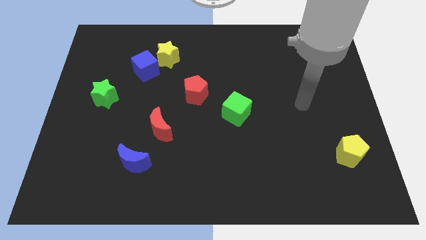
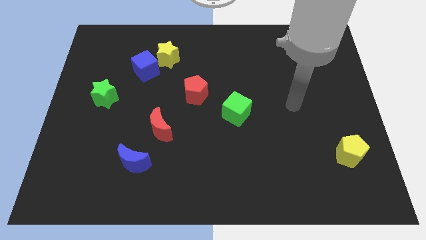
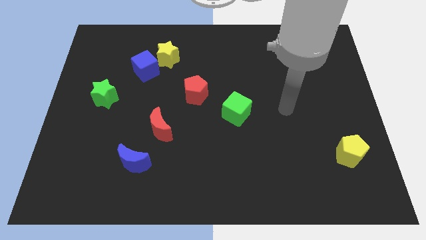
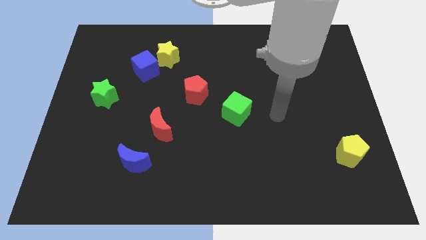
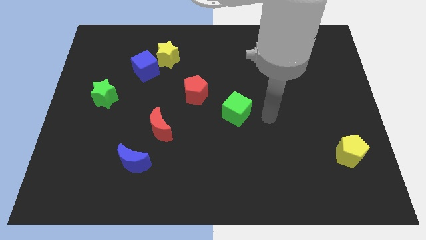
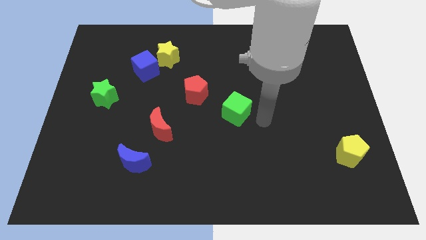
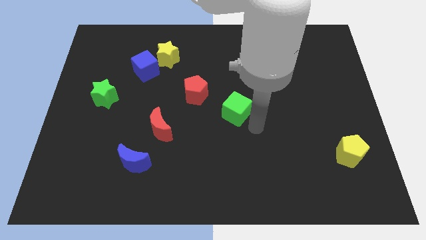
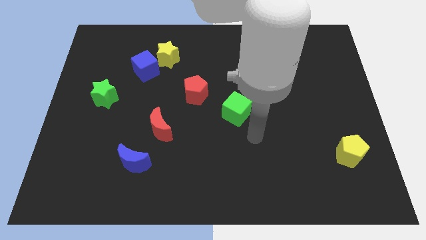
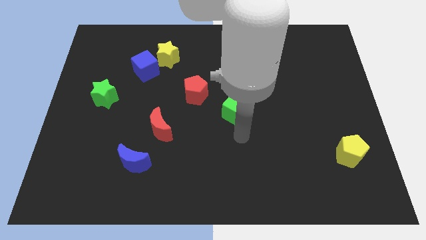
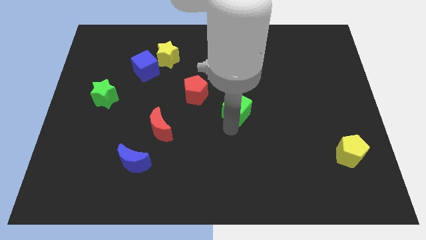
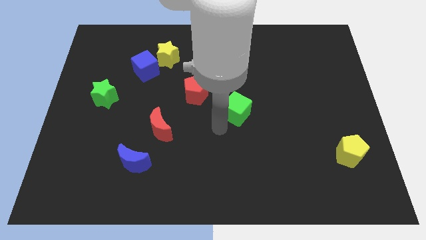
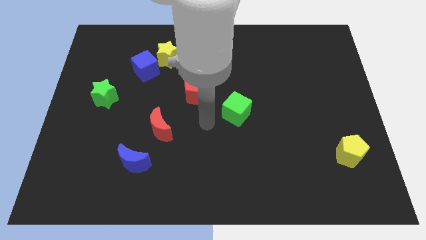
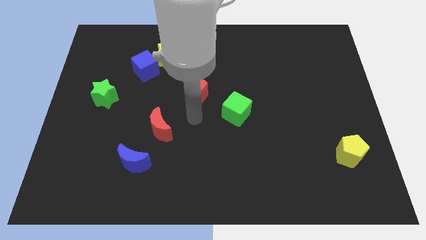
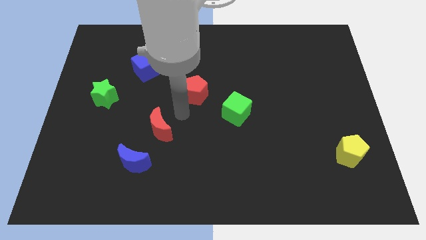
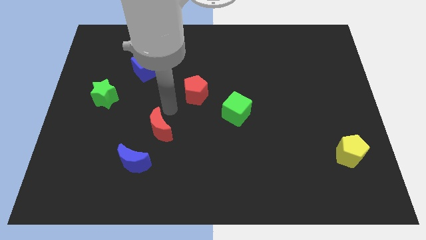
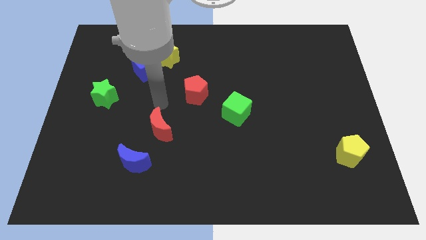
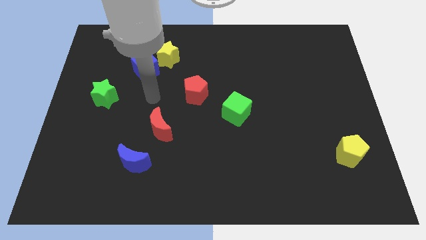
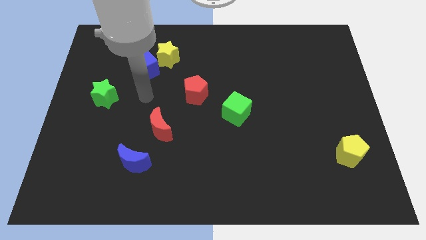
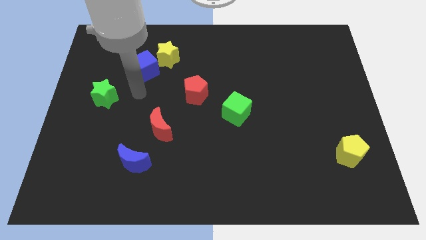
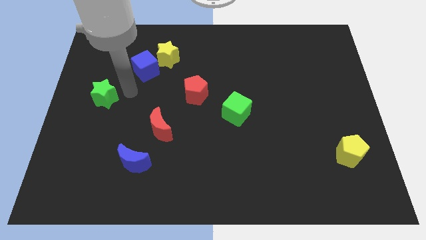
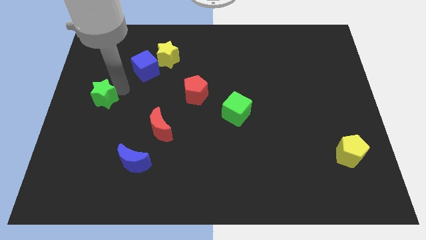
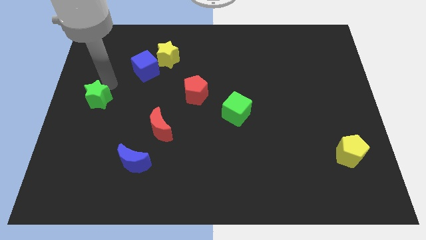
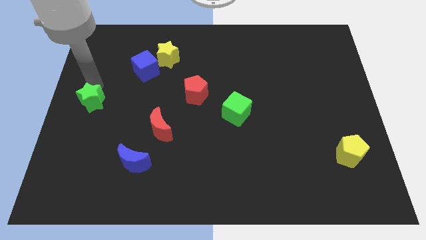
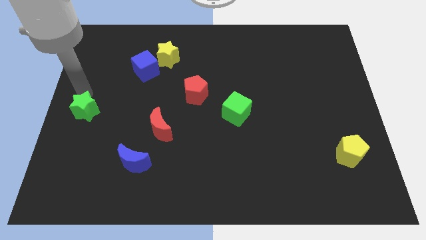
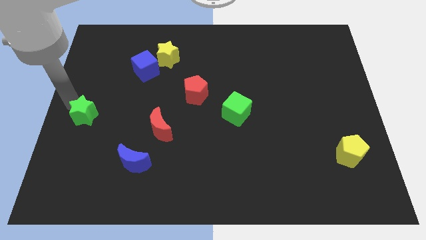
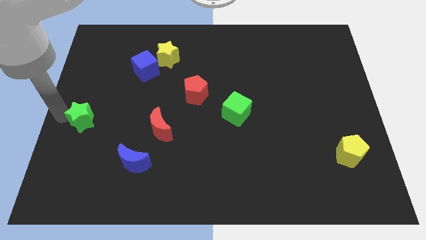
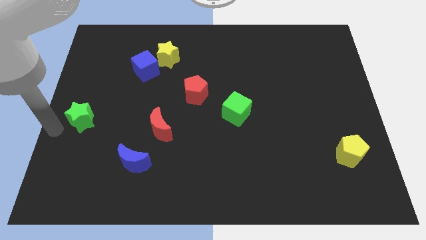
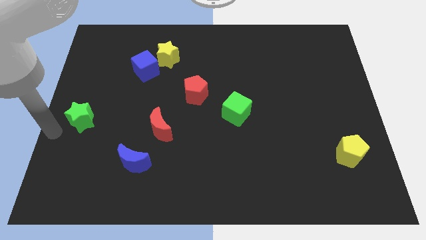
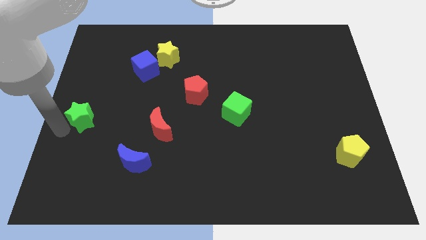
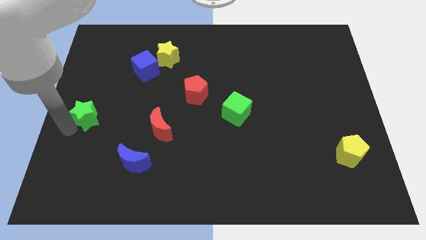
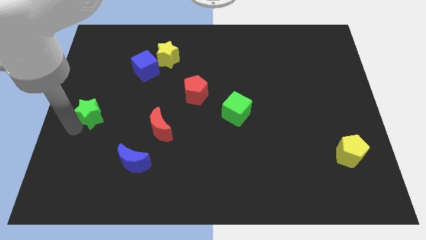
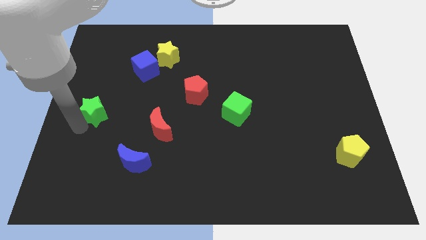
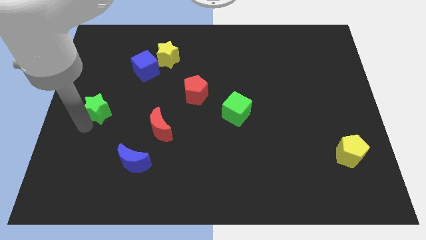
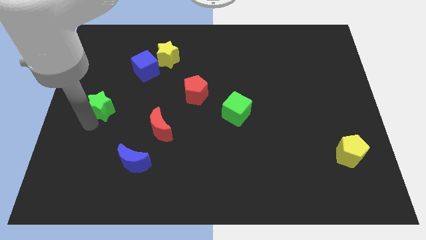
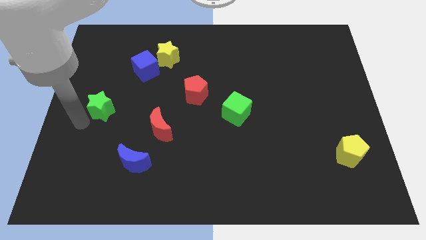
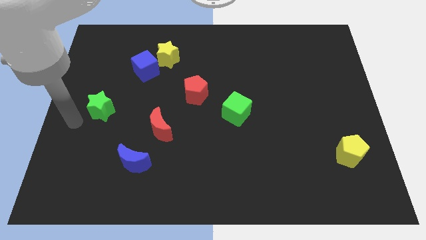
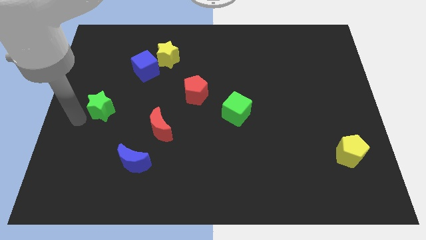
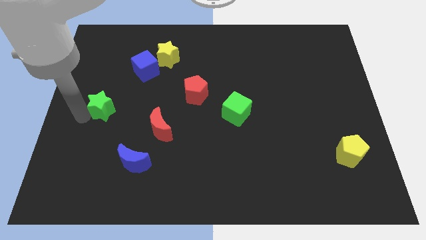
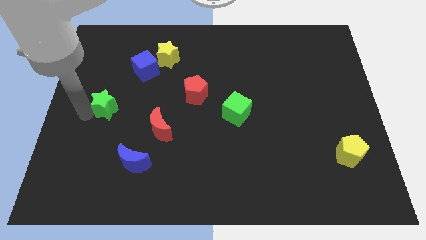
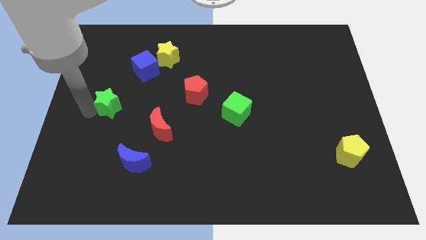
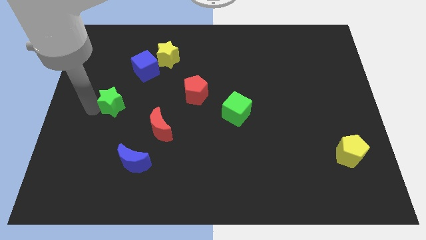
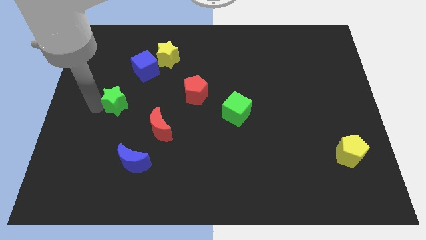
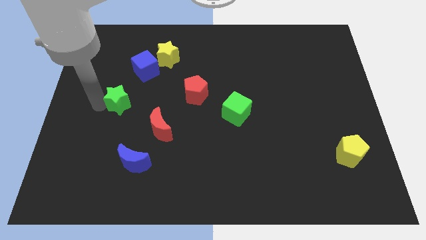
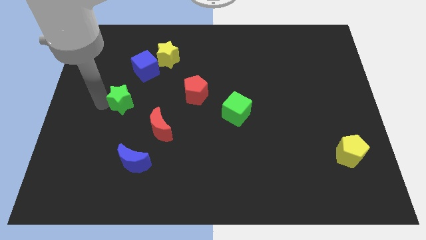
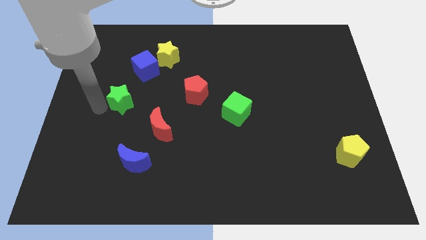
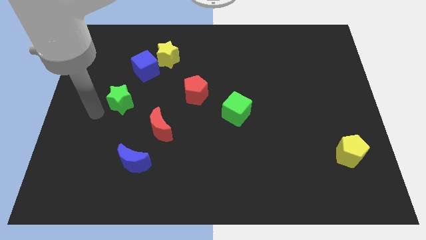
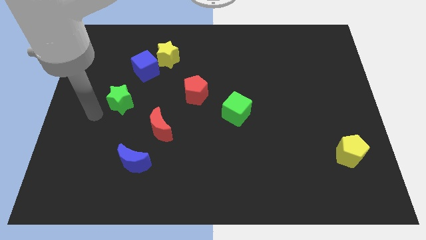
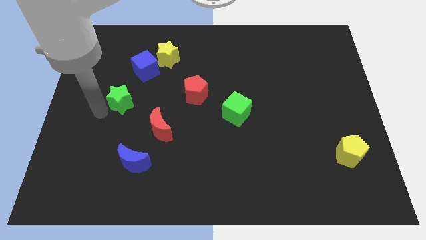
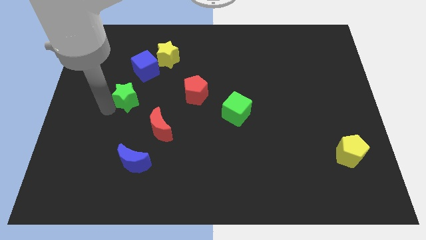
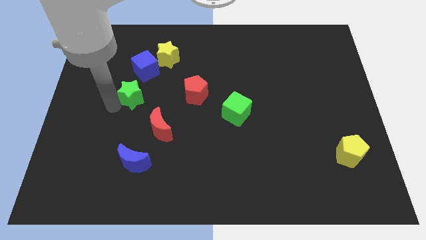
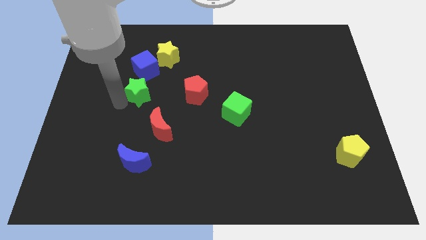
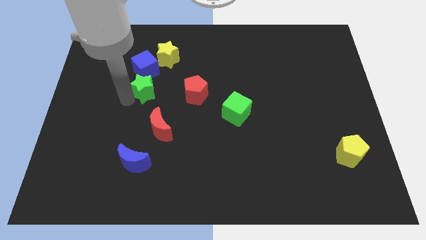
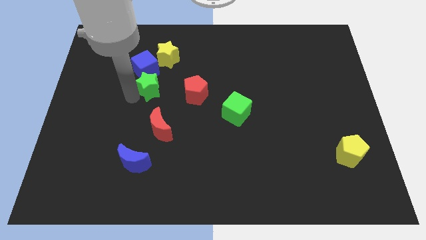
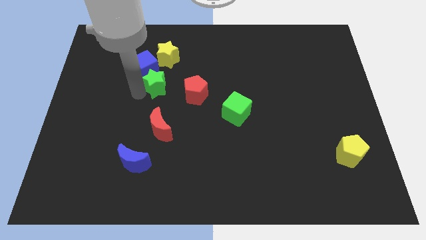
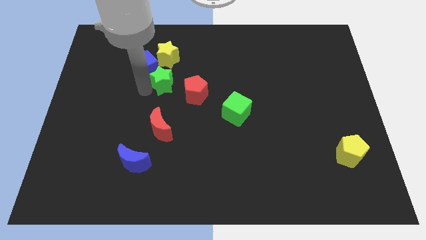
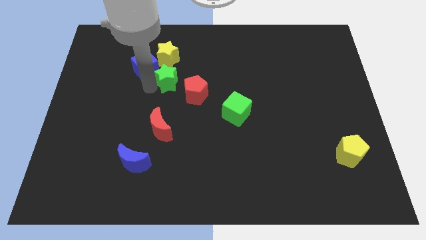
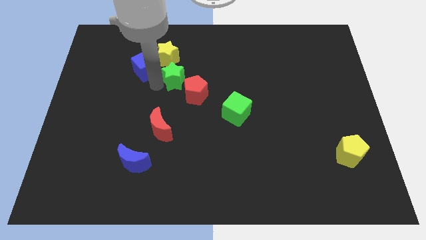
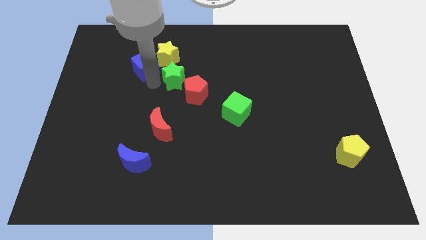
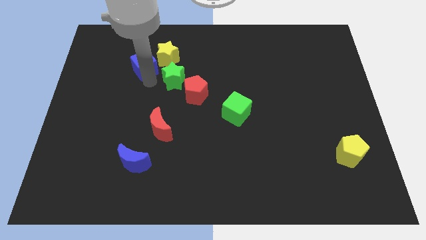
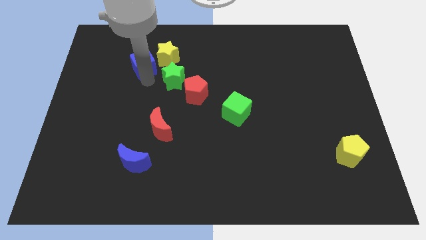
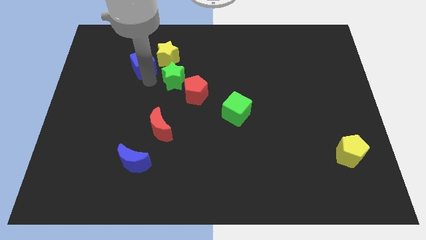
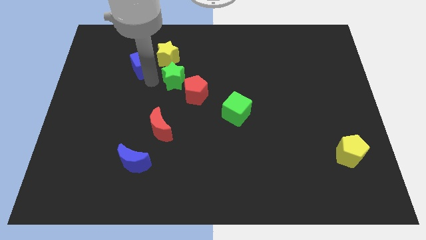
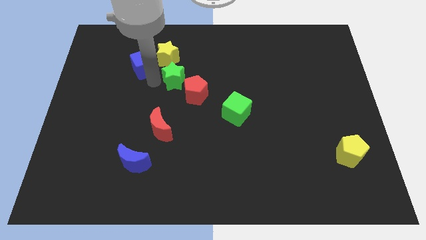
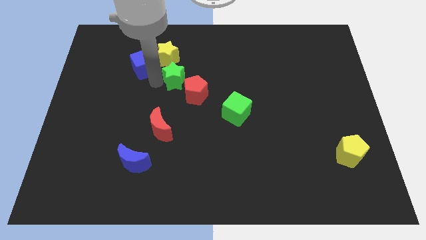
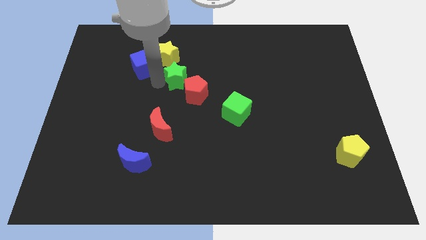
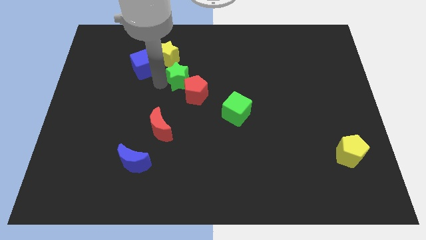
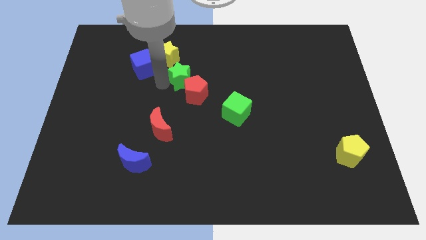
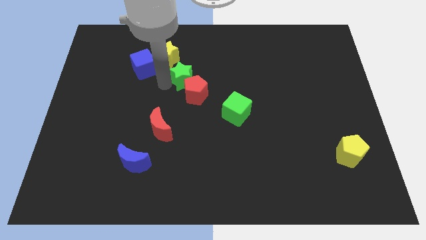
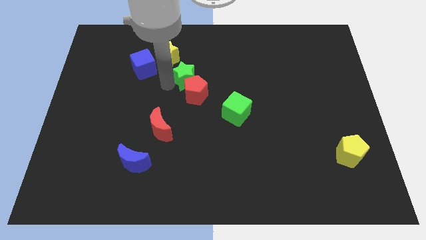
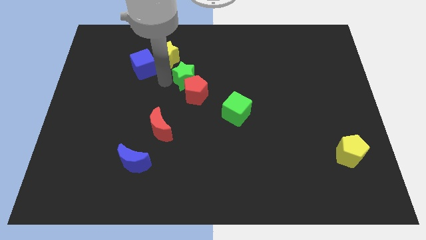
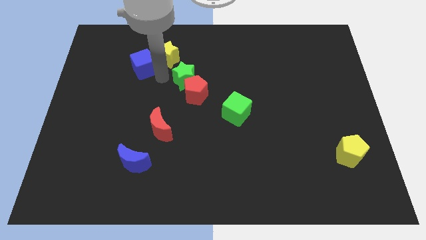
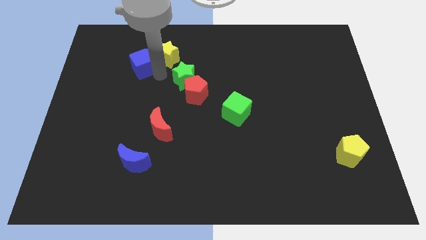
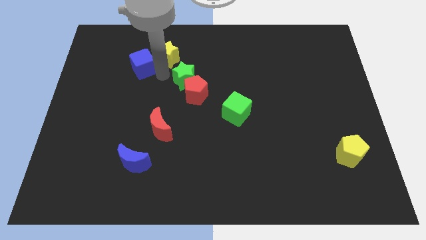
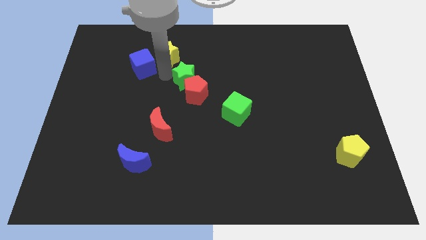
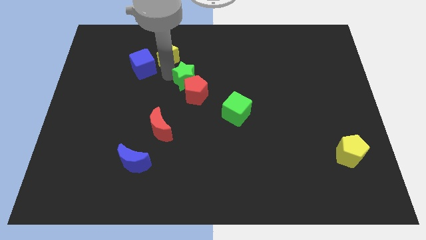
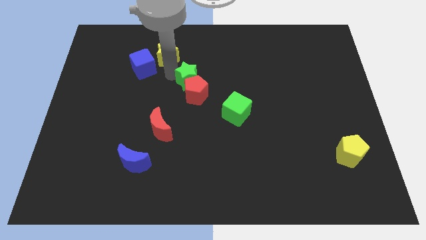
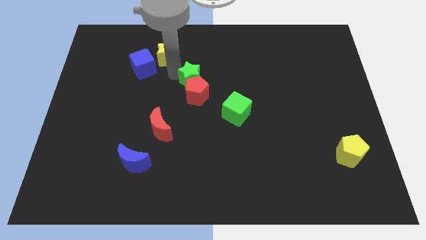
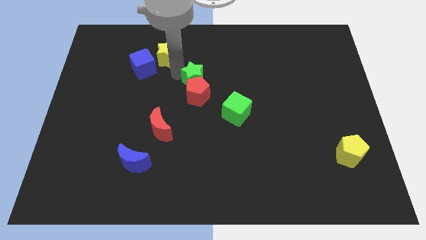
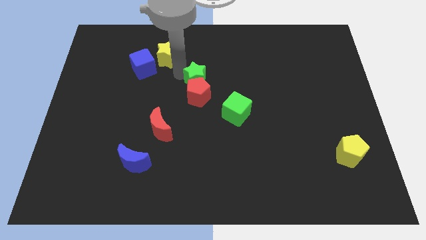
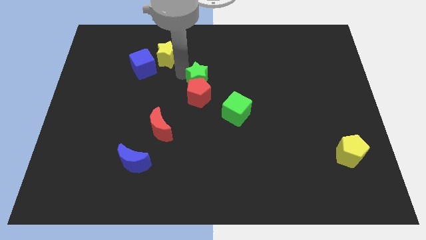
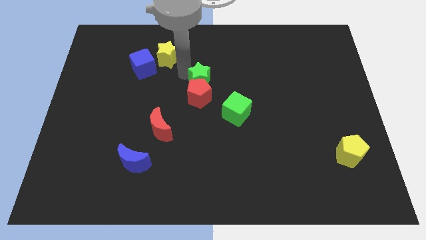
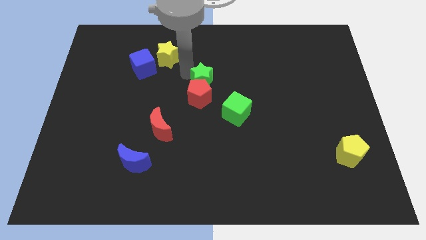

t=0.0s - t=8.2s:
move the green star to the top left of the green cube
